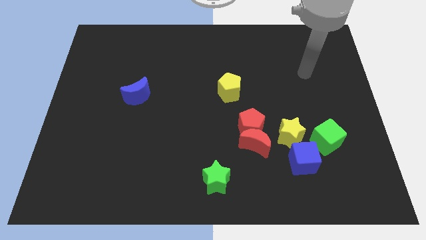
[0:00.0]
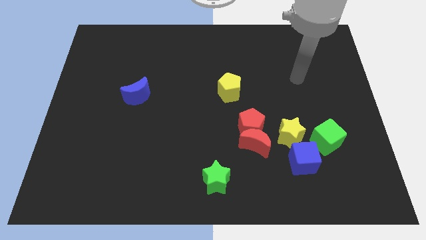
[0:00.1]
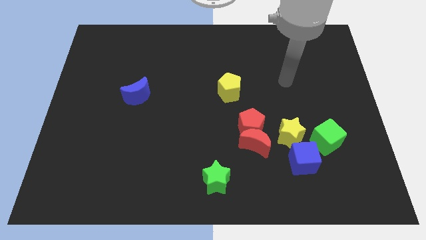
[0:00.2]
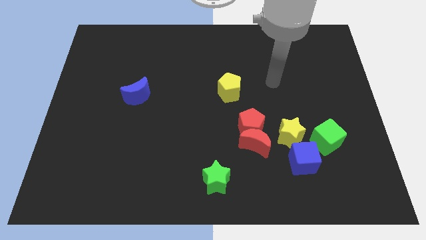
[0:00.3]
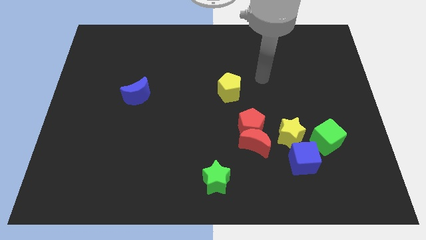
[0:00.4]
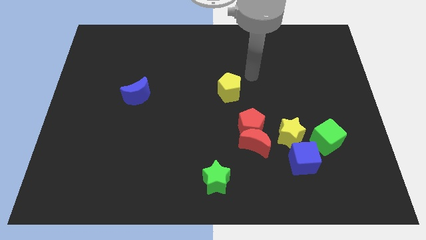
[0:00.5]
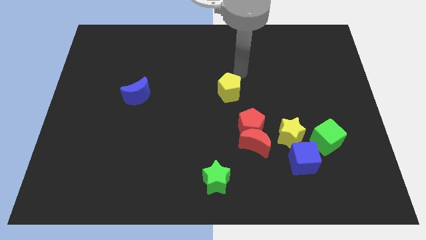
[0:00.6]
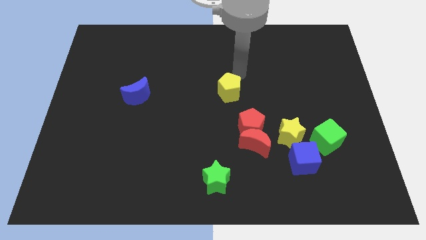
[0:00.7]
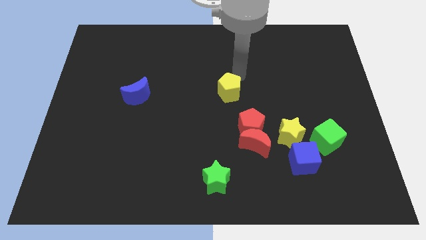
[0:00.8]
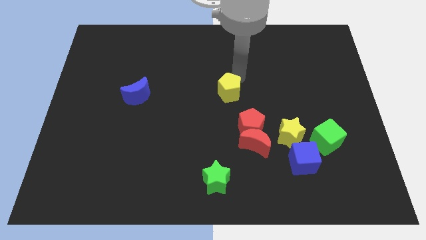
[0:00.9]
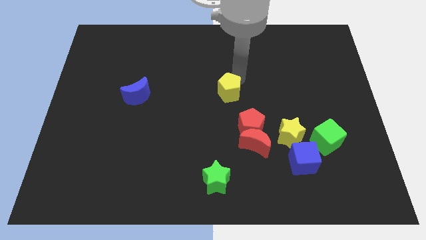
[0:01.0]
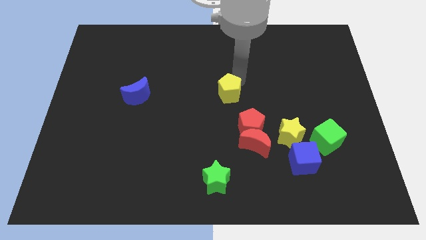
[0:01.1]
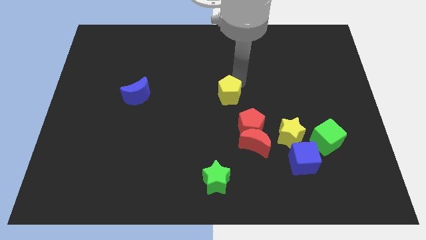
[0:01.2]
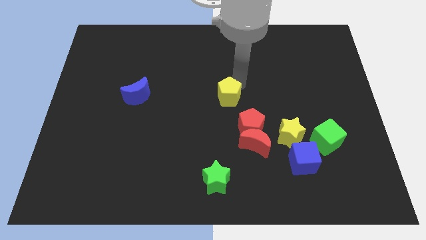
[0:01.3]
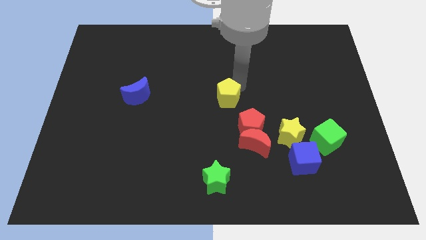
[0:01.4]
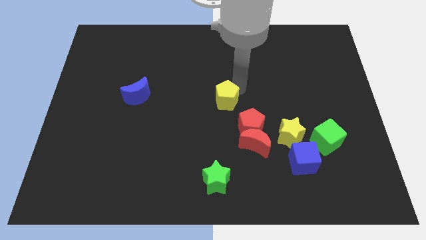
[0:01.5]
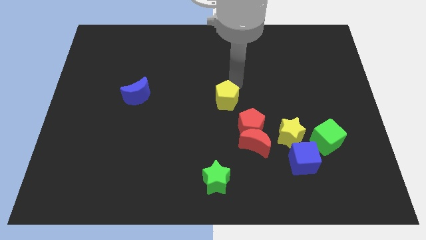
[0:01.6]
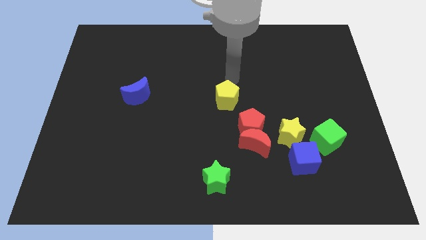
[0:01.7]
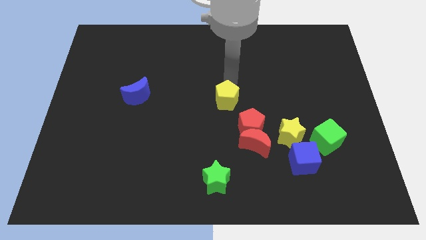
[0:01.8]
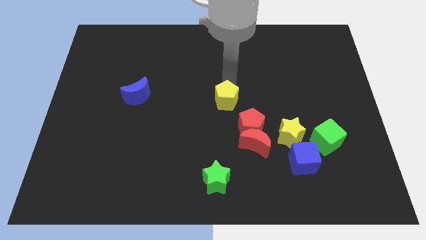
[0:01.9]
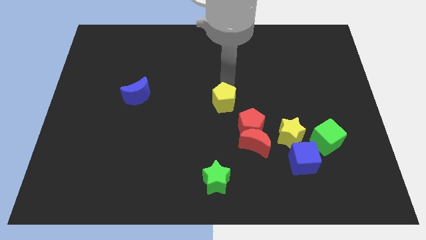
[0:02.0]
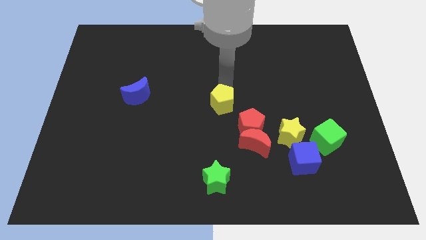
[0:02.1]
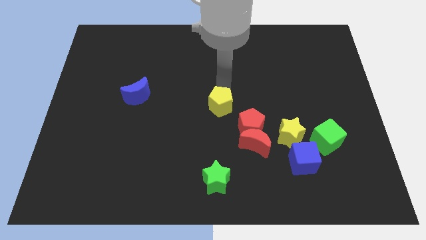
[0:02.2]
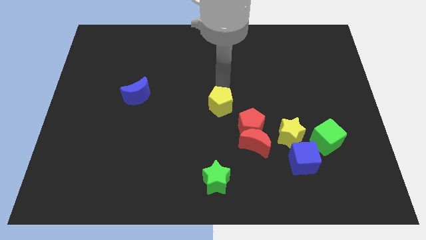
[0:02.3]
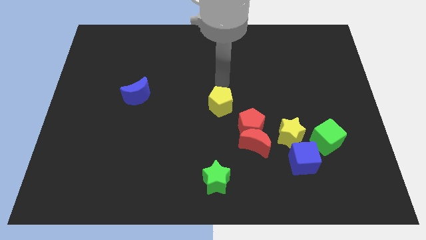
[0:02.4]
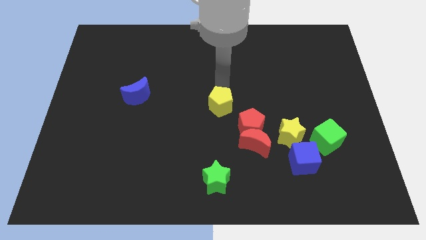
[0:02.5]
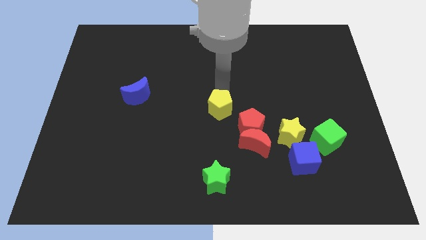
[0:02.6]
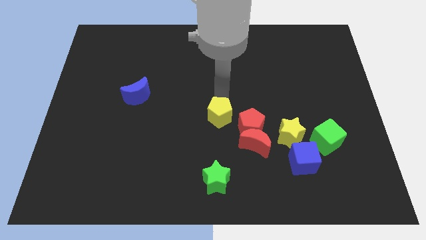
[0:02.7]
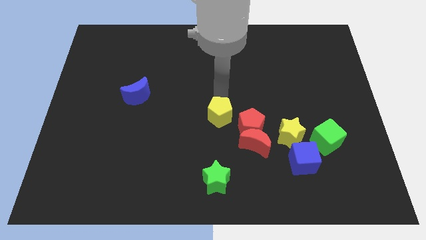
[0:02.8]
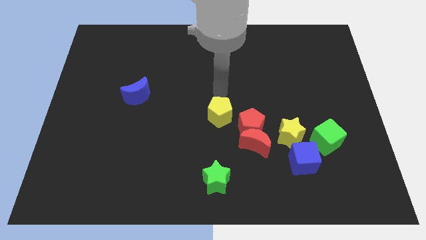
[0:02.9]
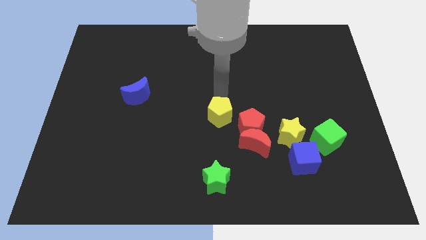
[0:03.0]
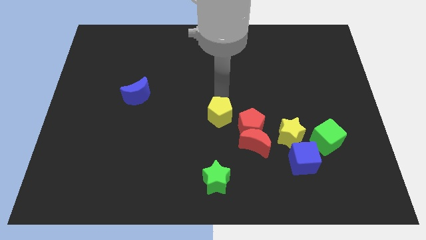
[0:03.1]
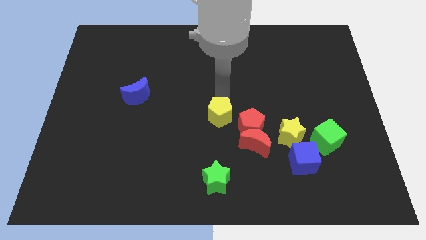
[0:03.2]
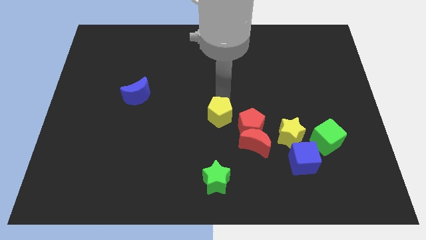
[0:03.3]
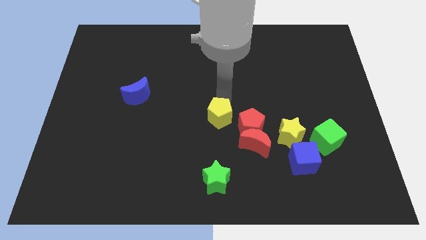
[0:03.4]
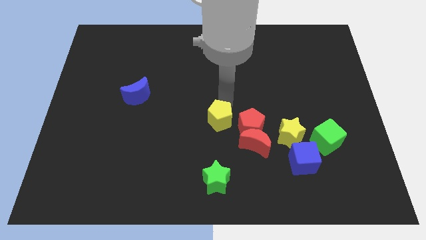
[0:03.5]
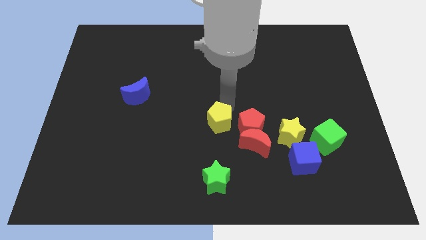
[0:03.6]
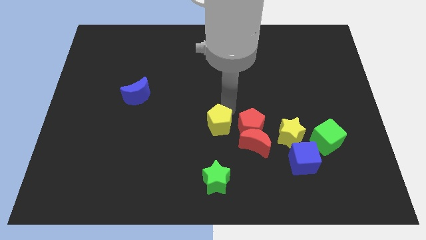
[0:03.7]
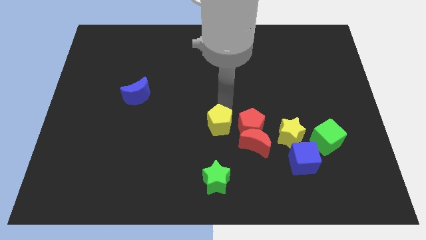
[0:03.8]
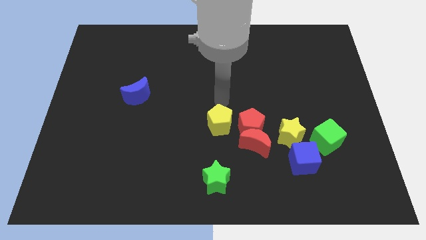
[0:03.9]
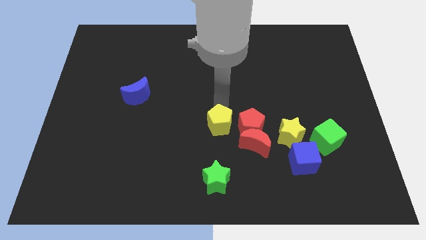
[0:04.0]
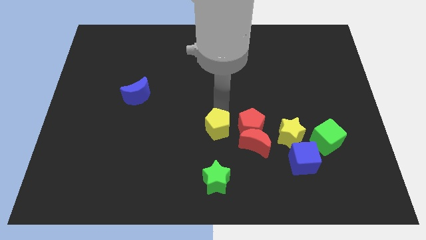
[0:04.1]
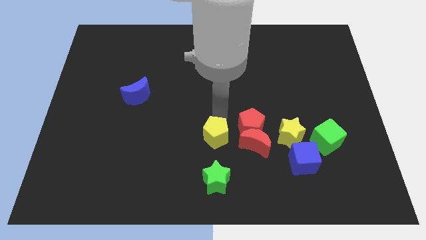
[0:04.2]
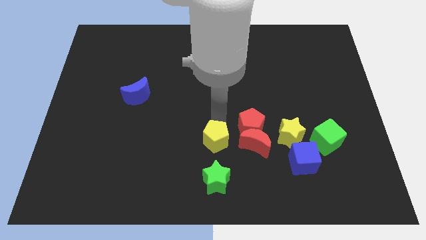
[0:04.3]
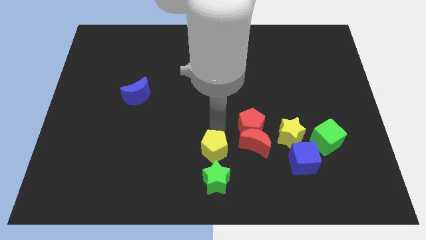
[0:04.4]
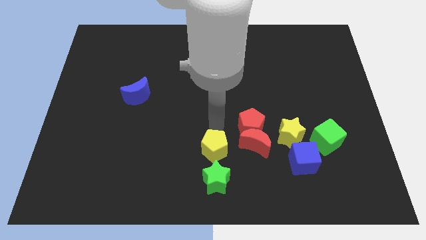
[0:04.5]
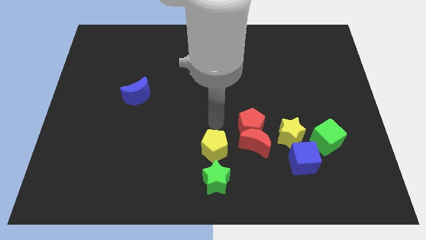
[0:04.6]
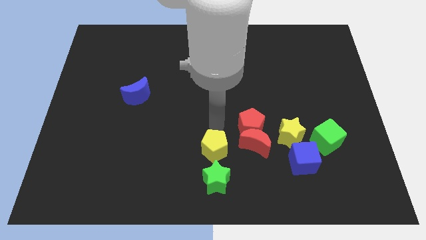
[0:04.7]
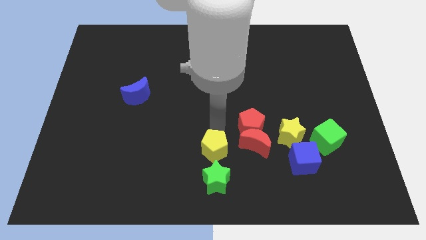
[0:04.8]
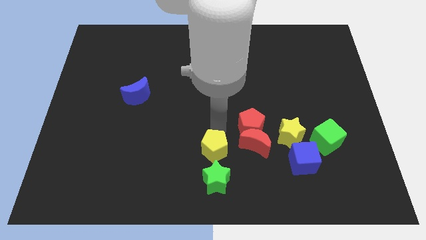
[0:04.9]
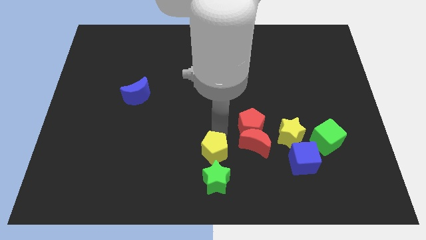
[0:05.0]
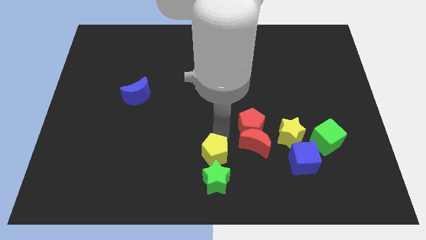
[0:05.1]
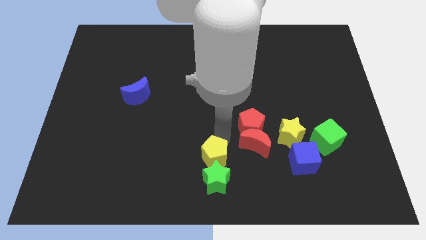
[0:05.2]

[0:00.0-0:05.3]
move the yellow pentagon close to the green star

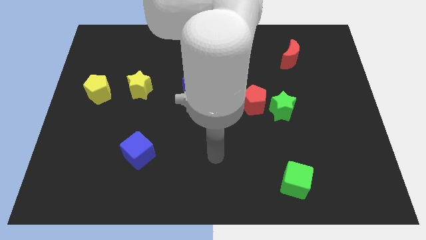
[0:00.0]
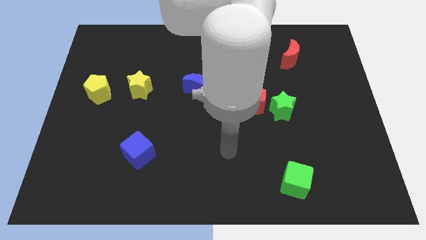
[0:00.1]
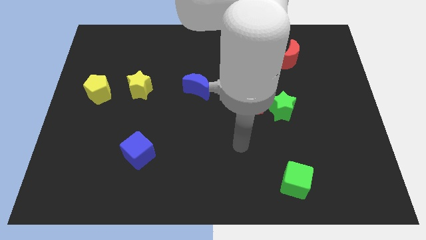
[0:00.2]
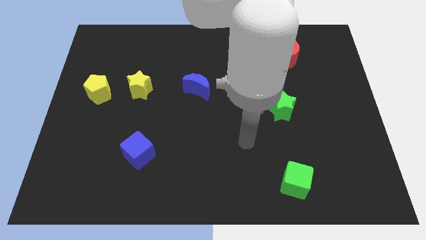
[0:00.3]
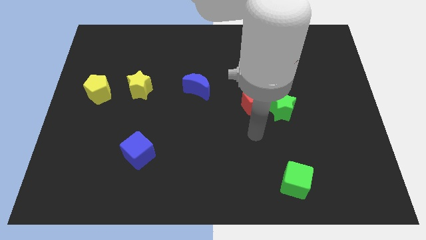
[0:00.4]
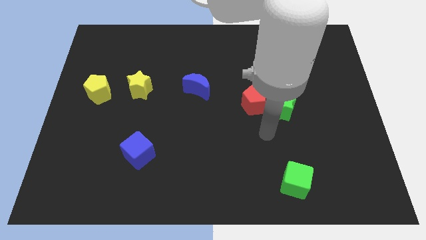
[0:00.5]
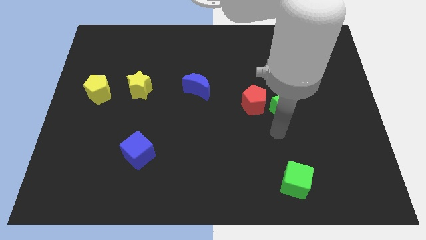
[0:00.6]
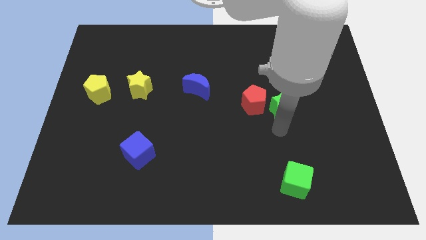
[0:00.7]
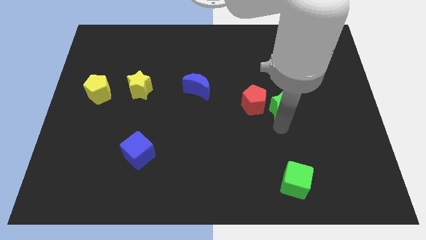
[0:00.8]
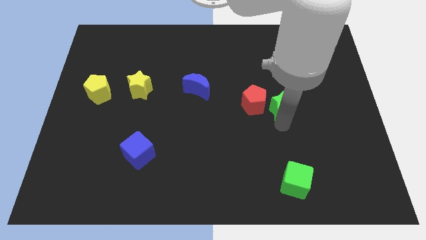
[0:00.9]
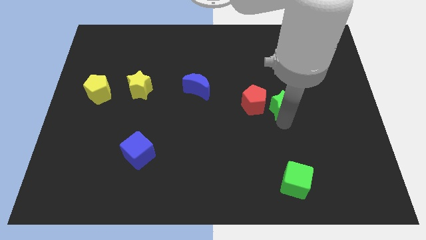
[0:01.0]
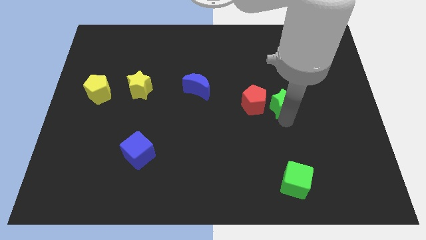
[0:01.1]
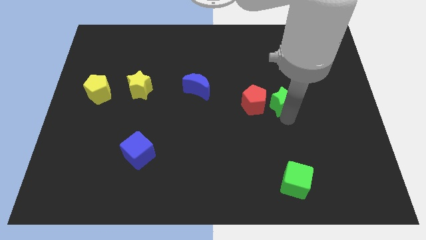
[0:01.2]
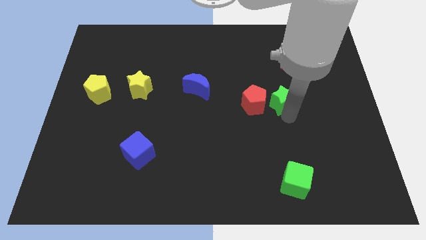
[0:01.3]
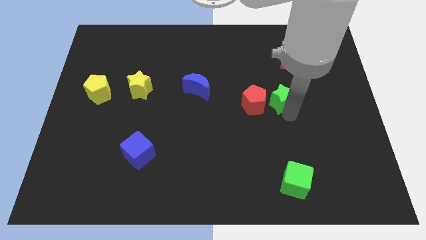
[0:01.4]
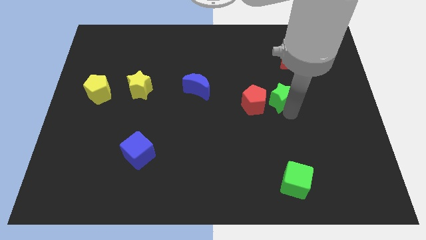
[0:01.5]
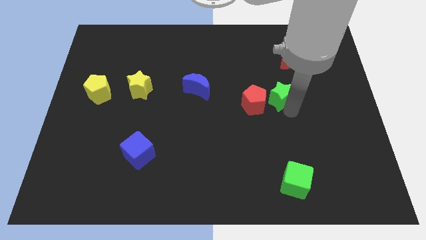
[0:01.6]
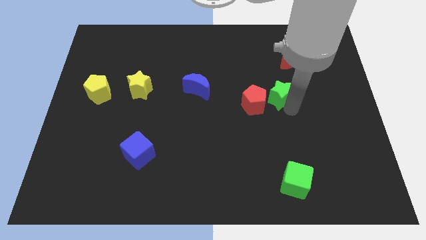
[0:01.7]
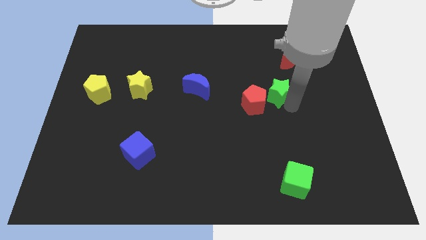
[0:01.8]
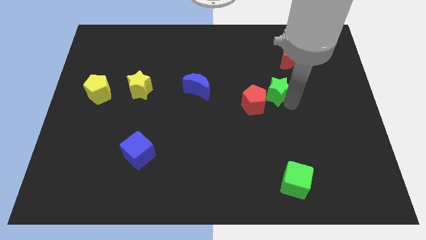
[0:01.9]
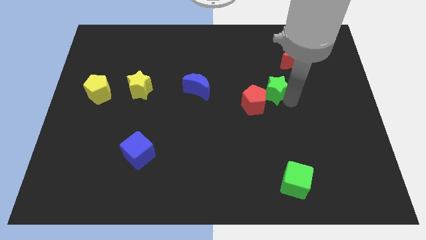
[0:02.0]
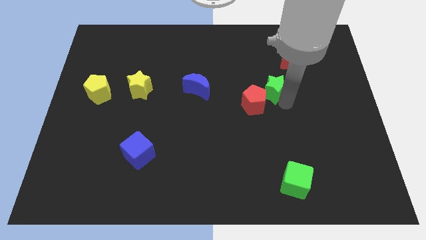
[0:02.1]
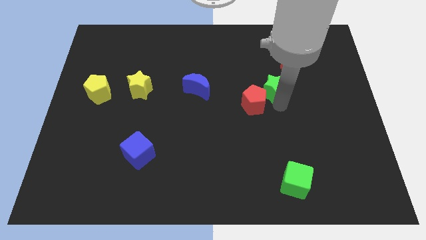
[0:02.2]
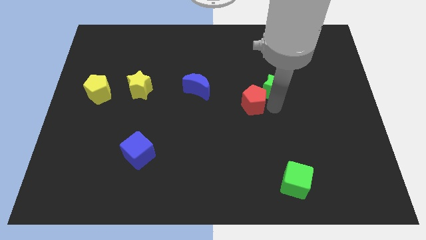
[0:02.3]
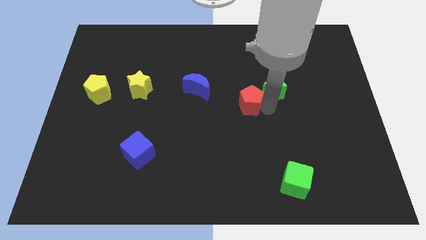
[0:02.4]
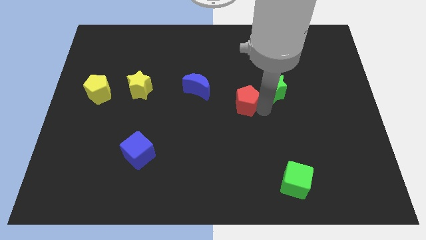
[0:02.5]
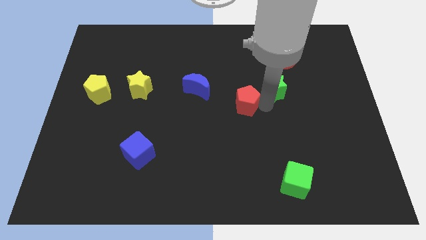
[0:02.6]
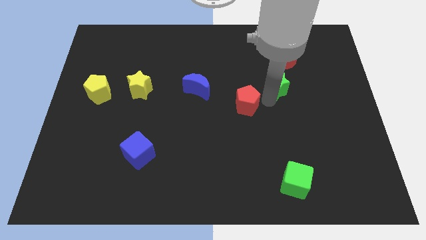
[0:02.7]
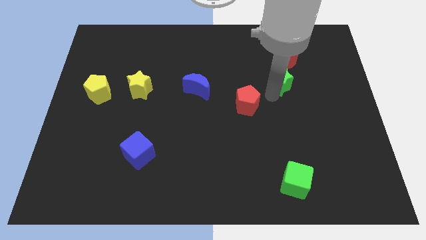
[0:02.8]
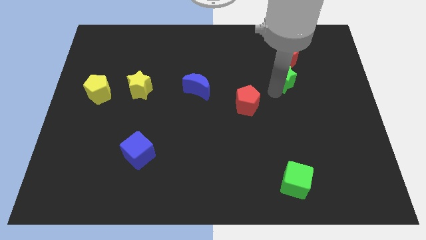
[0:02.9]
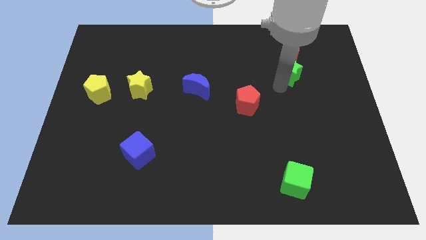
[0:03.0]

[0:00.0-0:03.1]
move the green star close to the red moon
